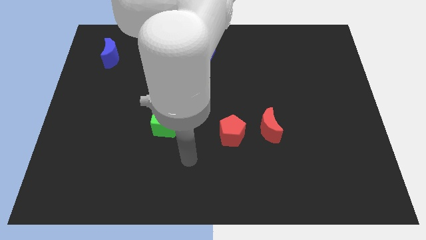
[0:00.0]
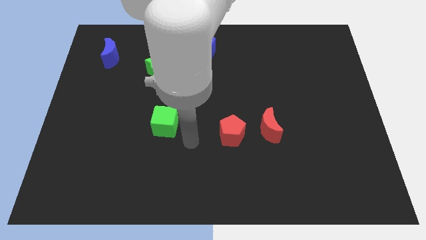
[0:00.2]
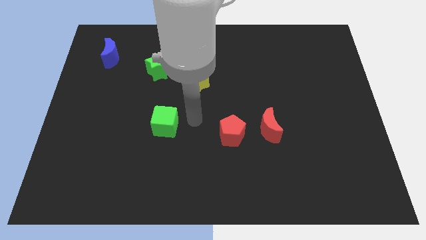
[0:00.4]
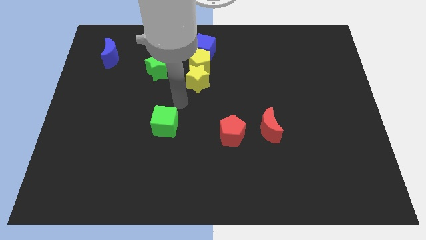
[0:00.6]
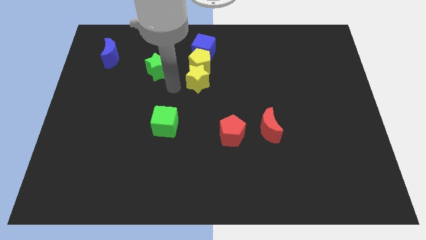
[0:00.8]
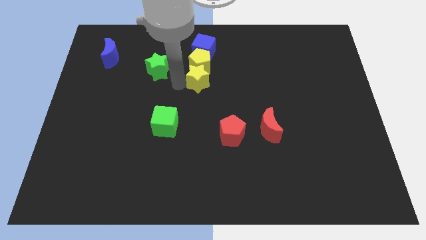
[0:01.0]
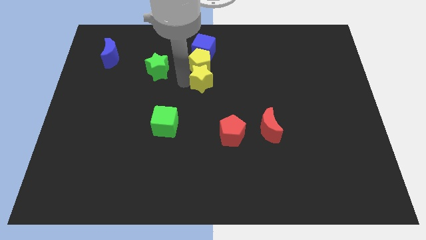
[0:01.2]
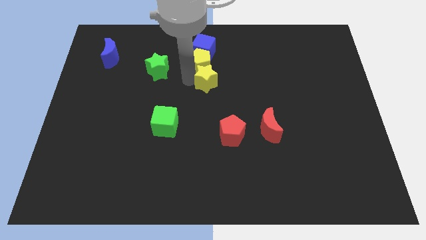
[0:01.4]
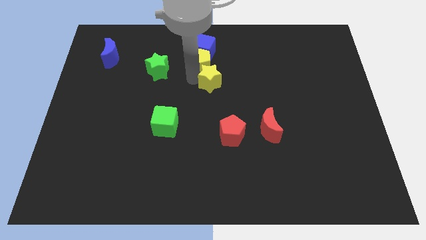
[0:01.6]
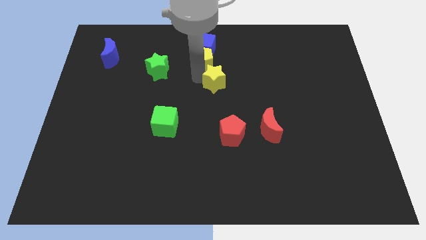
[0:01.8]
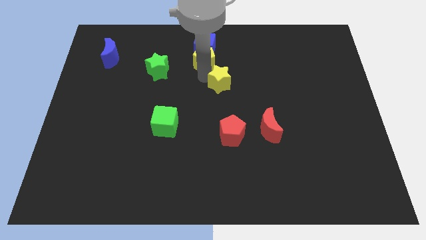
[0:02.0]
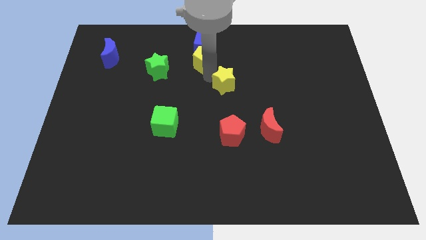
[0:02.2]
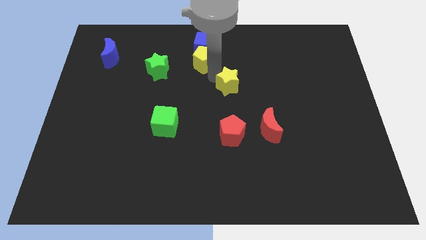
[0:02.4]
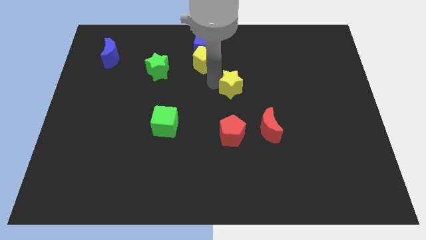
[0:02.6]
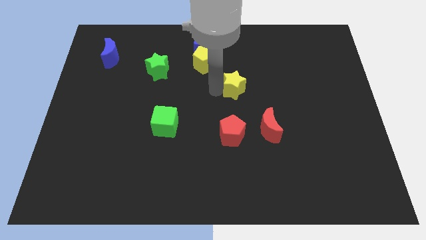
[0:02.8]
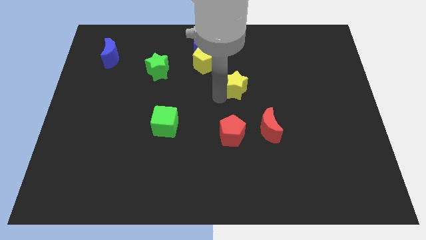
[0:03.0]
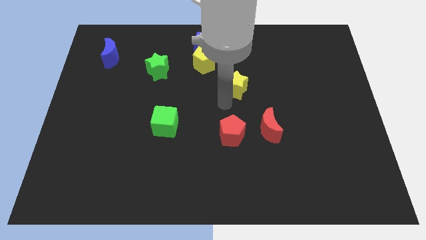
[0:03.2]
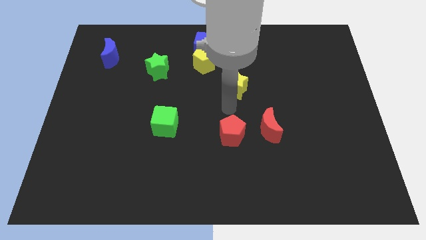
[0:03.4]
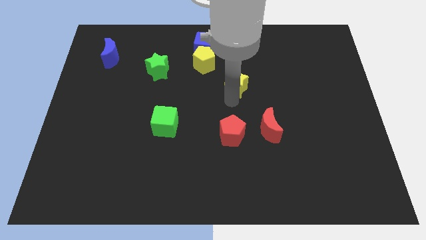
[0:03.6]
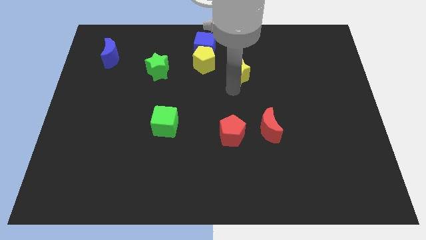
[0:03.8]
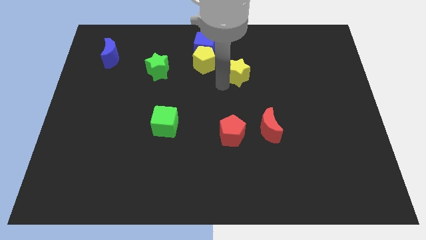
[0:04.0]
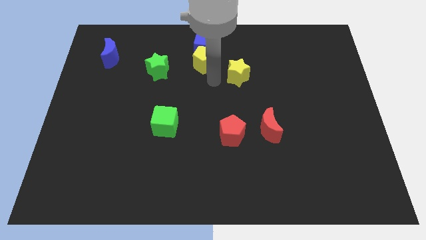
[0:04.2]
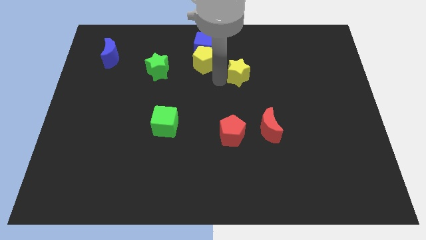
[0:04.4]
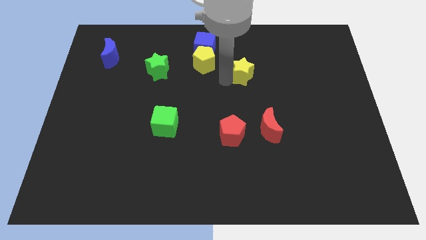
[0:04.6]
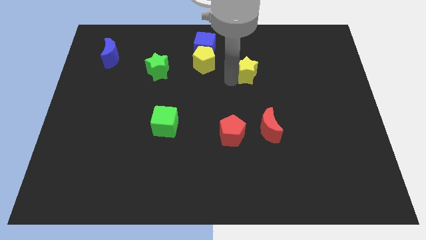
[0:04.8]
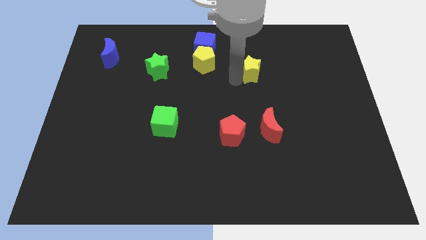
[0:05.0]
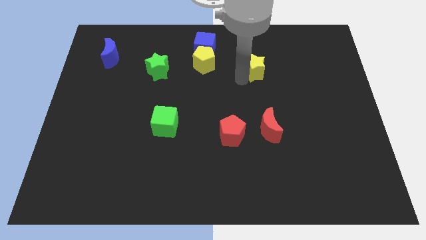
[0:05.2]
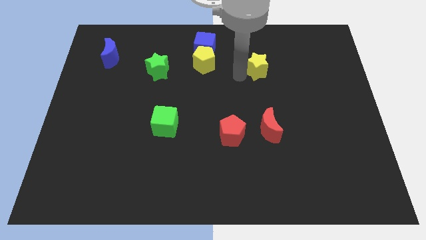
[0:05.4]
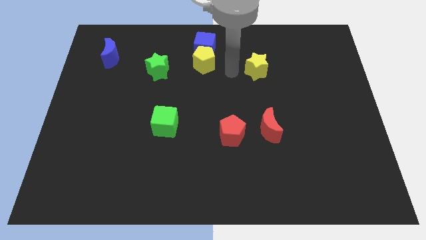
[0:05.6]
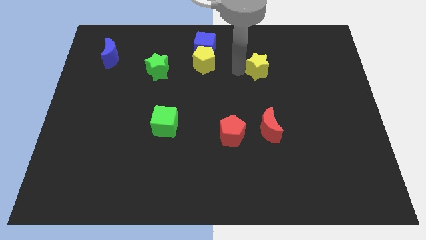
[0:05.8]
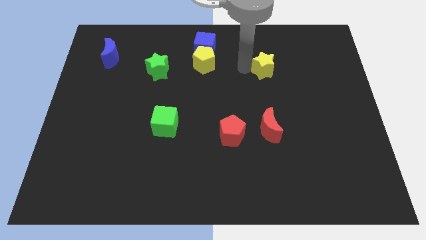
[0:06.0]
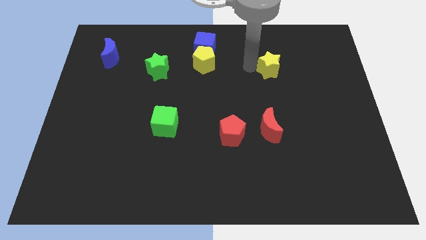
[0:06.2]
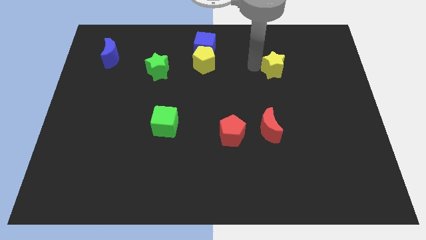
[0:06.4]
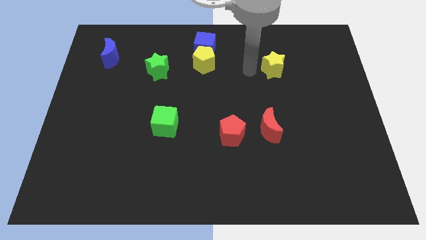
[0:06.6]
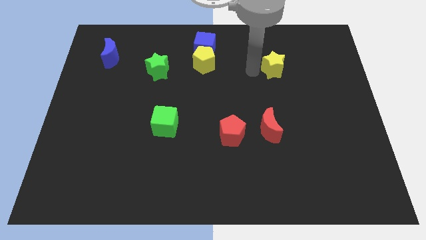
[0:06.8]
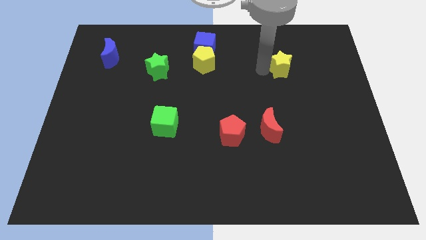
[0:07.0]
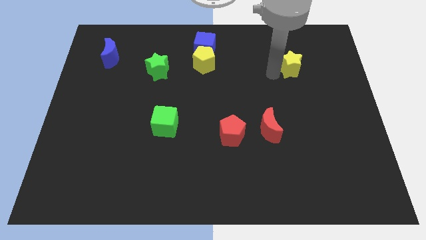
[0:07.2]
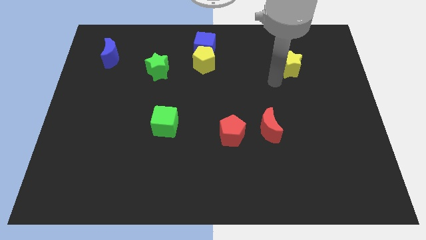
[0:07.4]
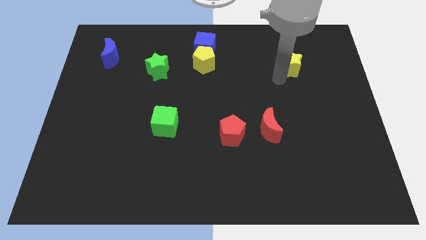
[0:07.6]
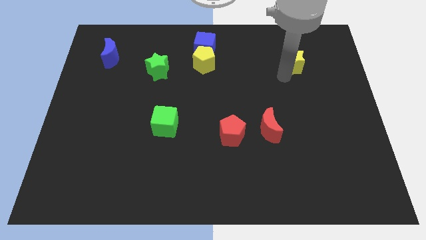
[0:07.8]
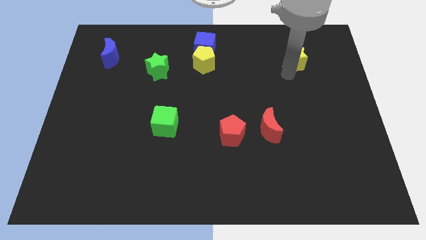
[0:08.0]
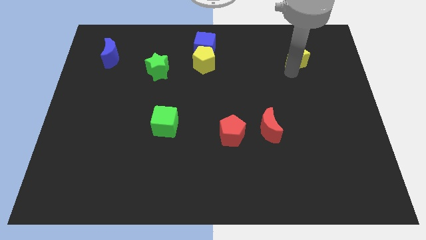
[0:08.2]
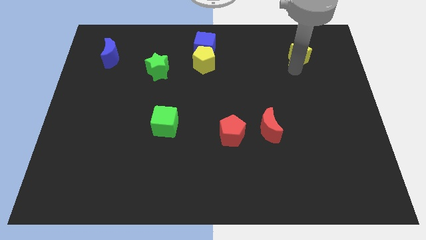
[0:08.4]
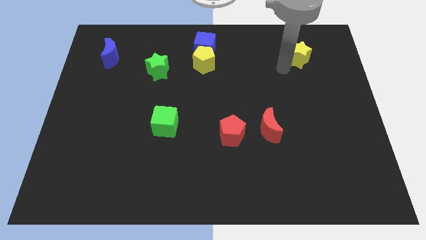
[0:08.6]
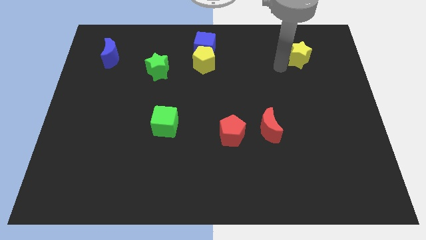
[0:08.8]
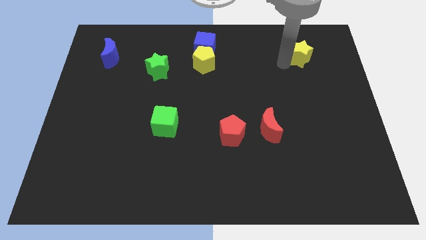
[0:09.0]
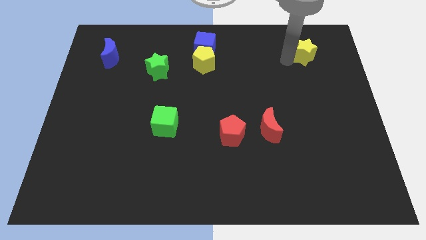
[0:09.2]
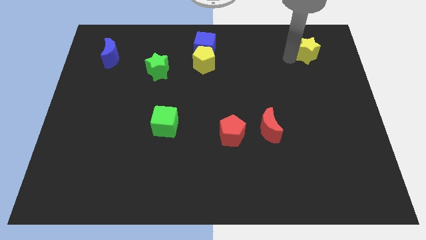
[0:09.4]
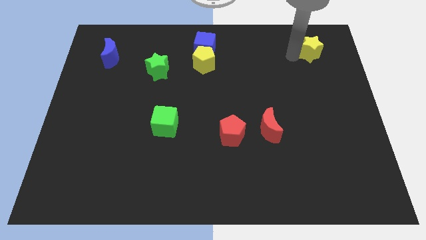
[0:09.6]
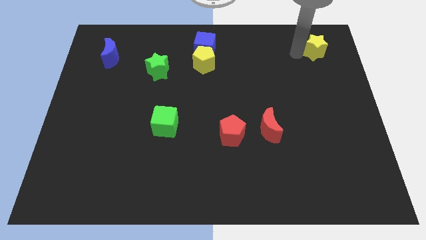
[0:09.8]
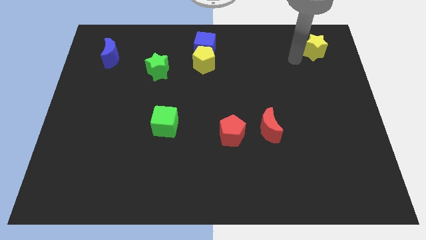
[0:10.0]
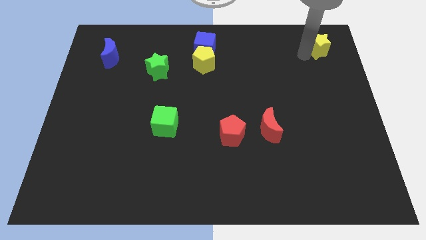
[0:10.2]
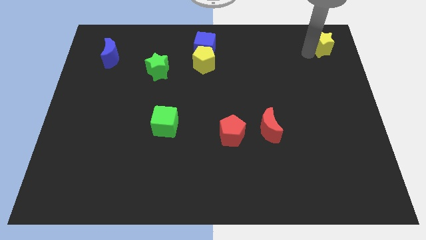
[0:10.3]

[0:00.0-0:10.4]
slide the yellow star to the top right

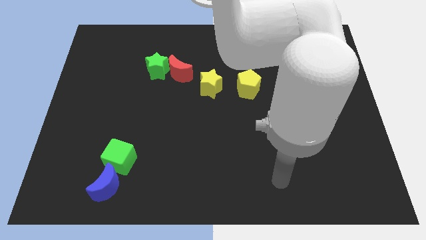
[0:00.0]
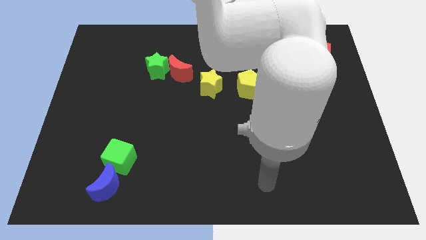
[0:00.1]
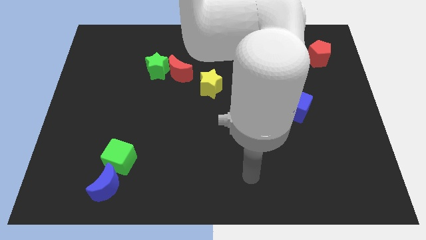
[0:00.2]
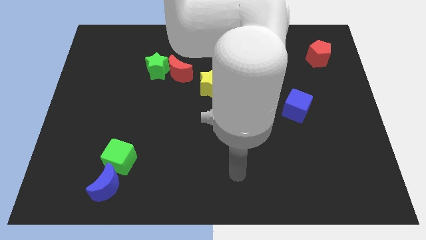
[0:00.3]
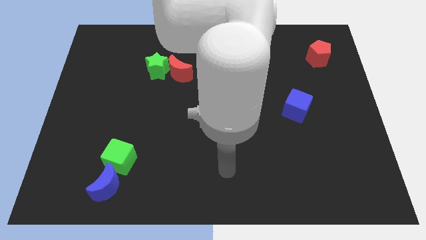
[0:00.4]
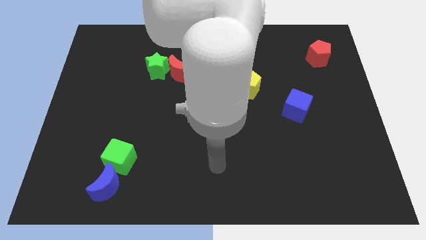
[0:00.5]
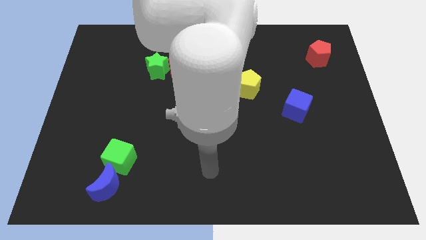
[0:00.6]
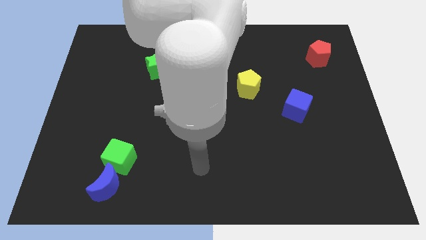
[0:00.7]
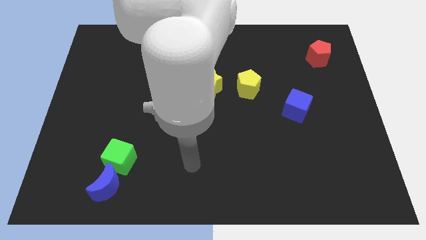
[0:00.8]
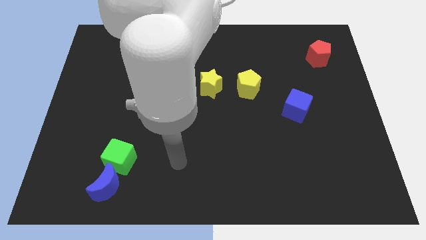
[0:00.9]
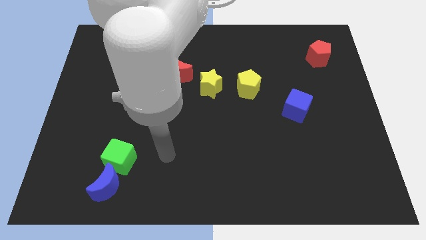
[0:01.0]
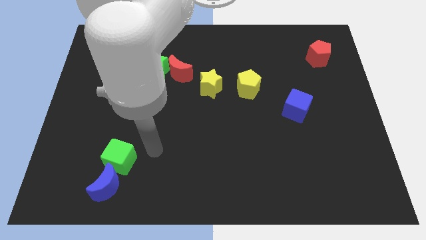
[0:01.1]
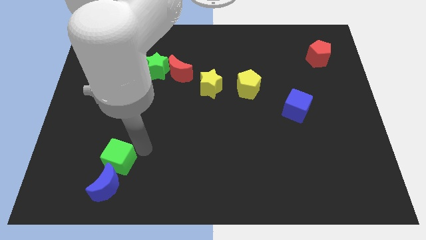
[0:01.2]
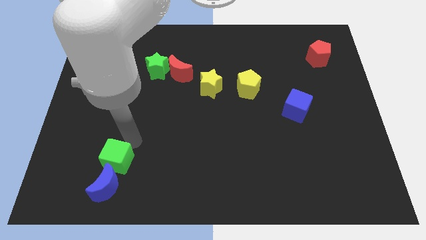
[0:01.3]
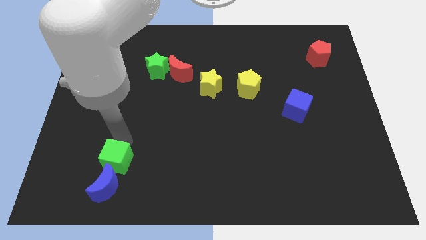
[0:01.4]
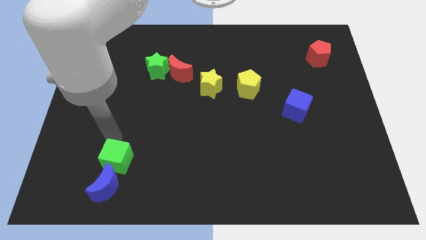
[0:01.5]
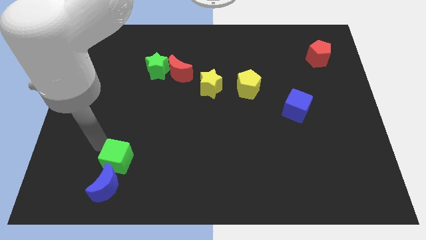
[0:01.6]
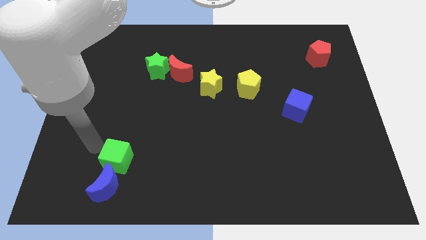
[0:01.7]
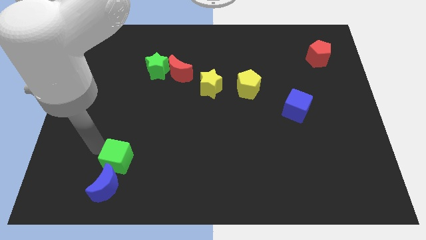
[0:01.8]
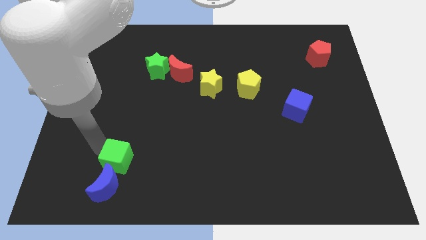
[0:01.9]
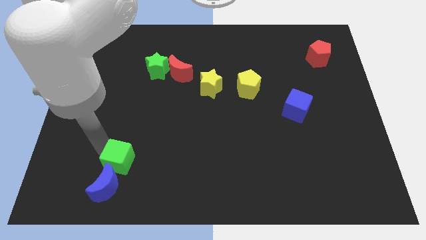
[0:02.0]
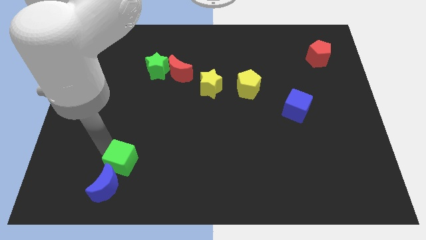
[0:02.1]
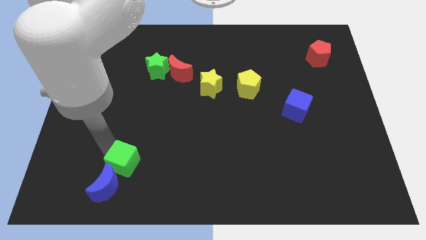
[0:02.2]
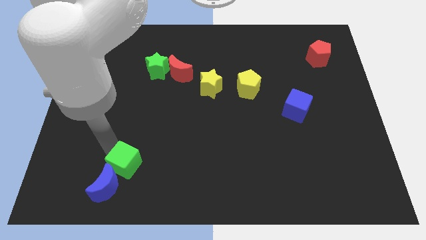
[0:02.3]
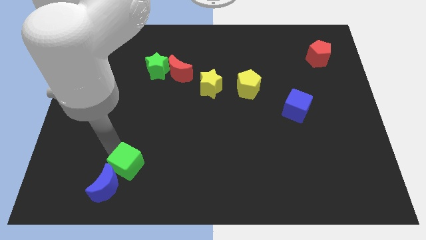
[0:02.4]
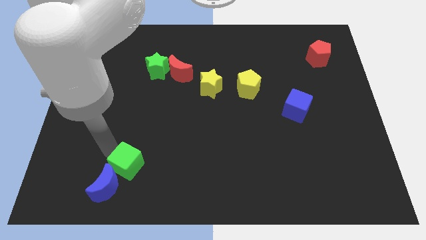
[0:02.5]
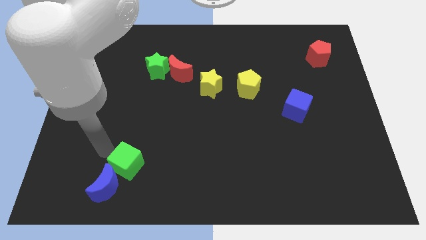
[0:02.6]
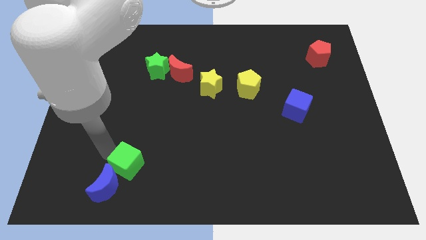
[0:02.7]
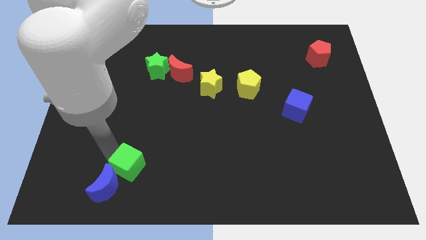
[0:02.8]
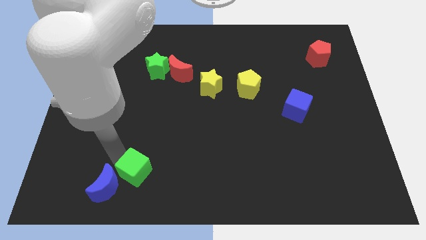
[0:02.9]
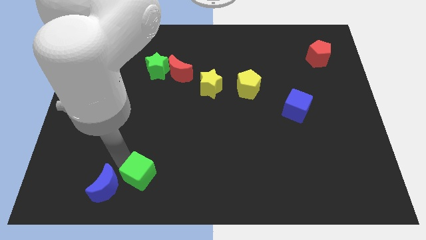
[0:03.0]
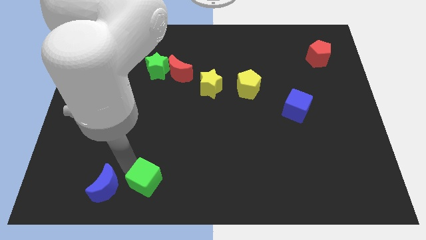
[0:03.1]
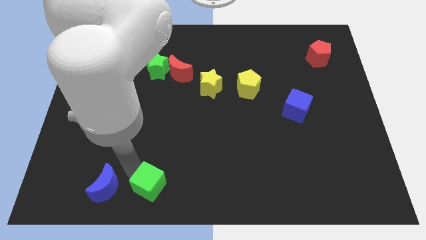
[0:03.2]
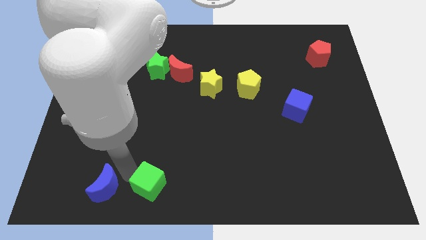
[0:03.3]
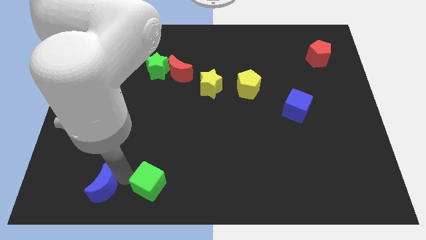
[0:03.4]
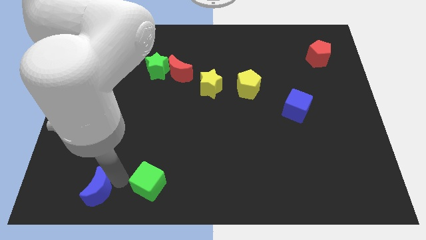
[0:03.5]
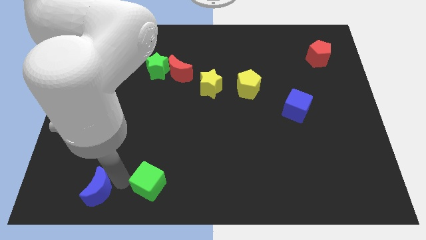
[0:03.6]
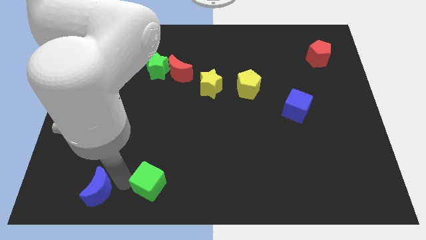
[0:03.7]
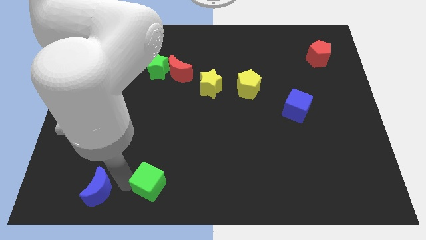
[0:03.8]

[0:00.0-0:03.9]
push the green cube to the bottom
